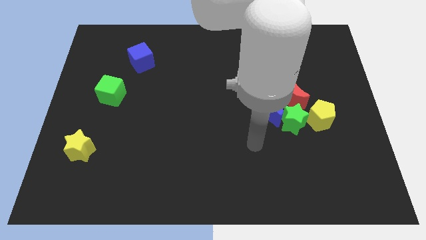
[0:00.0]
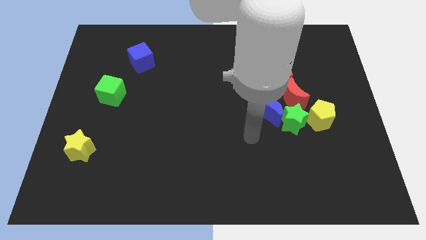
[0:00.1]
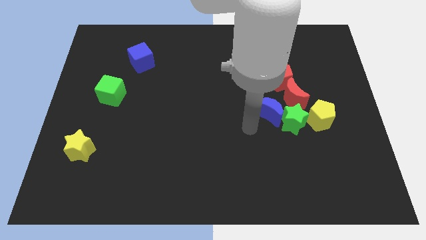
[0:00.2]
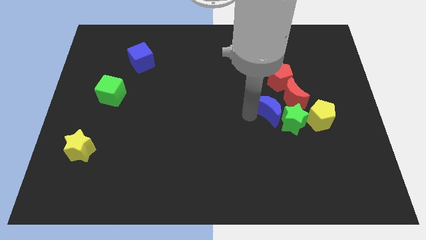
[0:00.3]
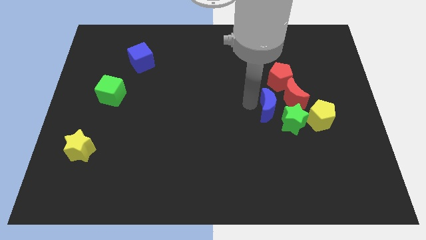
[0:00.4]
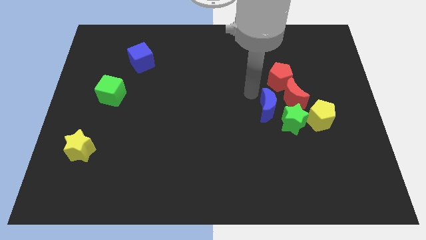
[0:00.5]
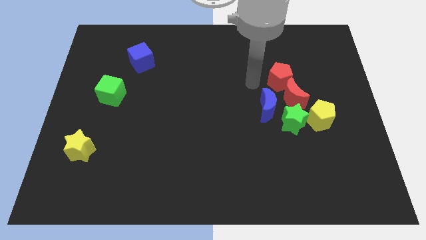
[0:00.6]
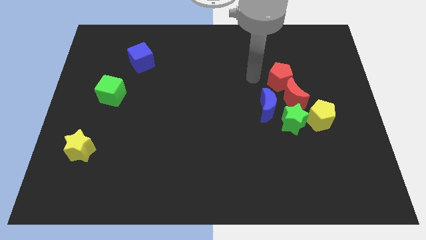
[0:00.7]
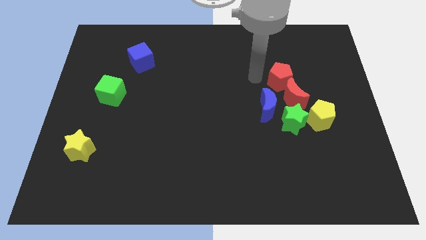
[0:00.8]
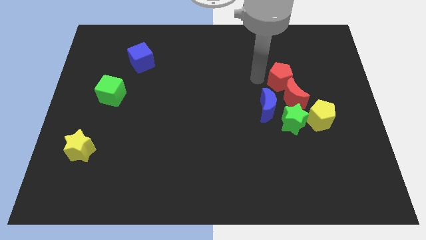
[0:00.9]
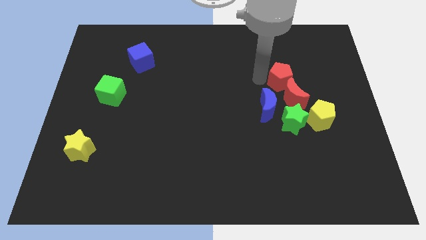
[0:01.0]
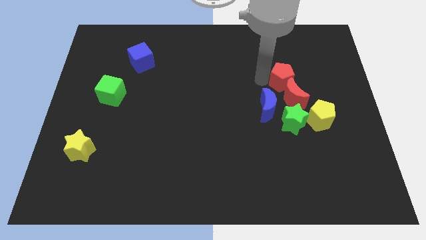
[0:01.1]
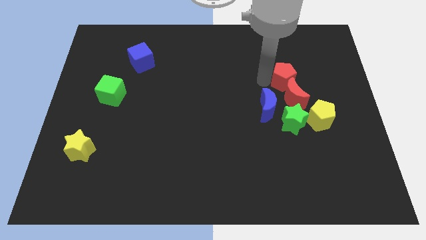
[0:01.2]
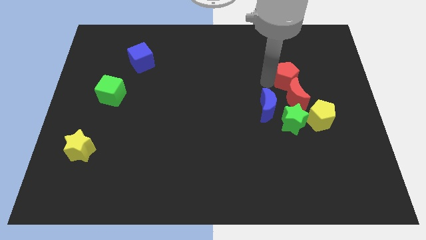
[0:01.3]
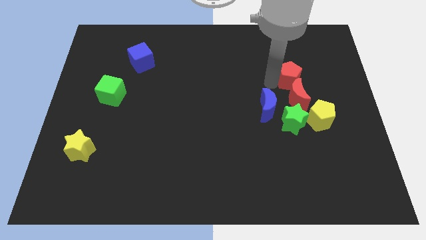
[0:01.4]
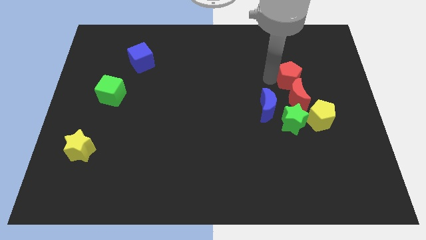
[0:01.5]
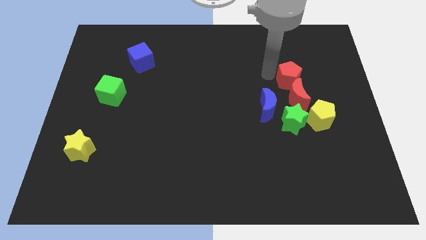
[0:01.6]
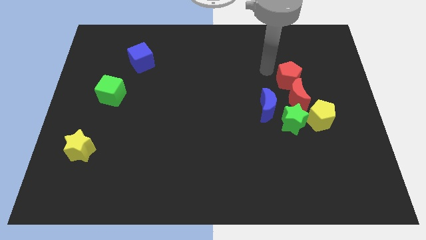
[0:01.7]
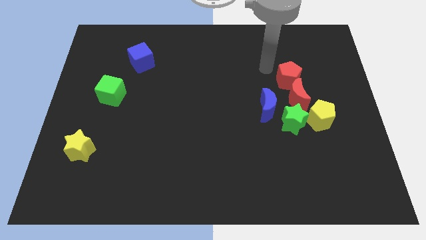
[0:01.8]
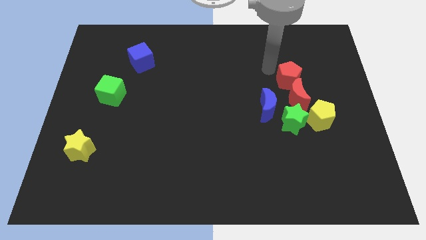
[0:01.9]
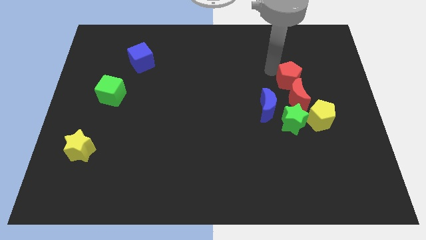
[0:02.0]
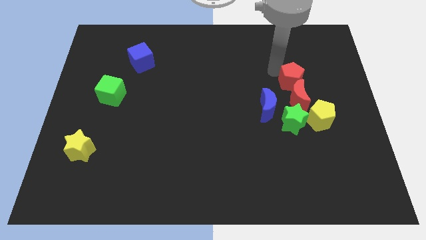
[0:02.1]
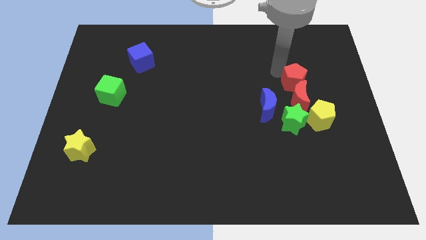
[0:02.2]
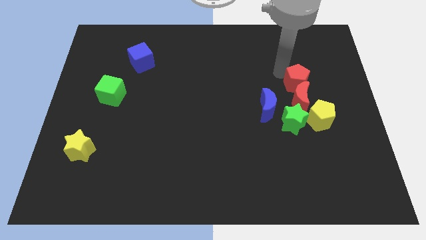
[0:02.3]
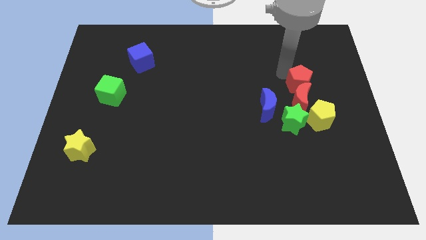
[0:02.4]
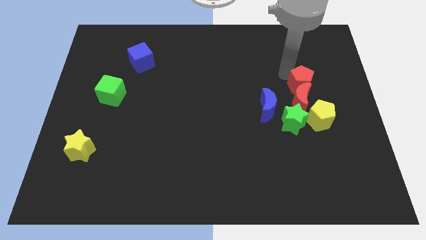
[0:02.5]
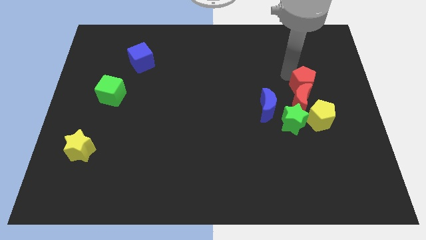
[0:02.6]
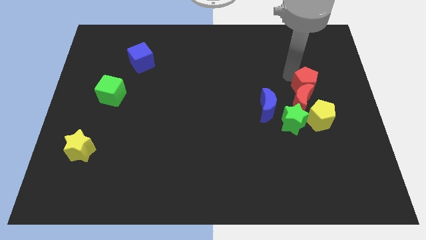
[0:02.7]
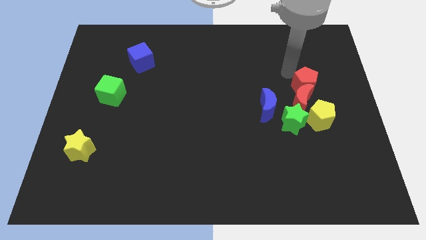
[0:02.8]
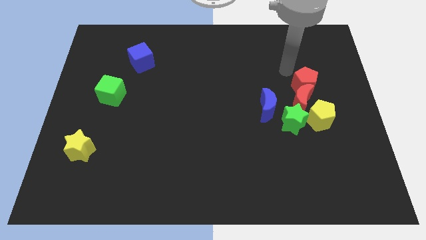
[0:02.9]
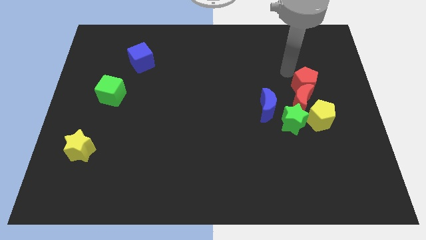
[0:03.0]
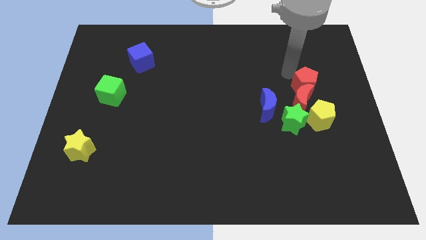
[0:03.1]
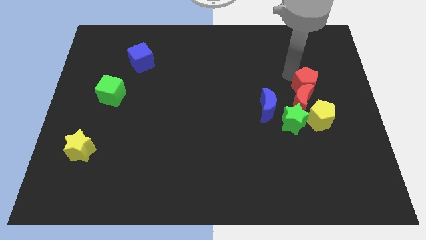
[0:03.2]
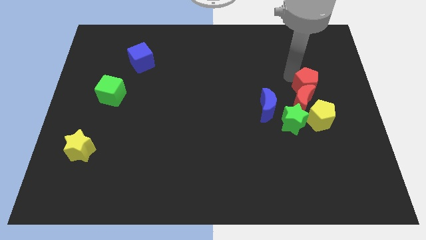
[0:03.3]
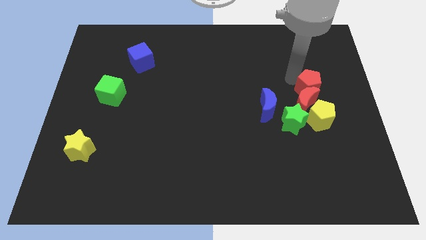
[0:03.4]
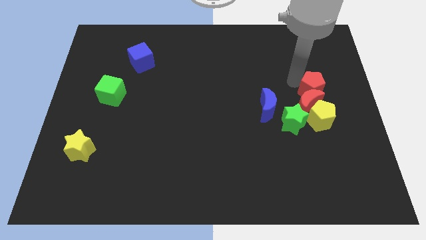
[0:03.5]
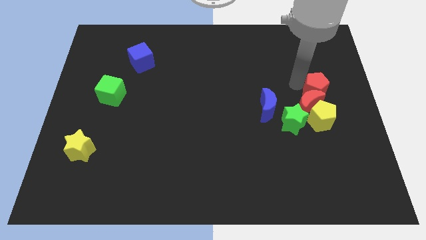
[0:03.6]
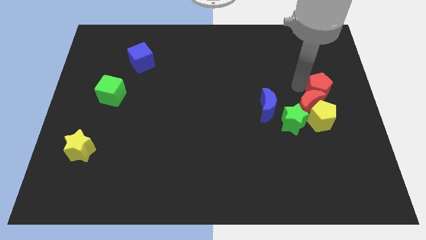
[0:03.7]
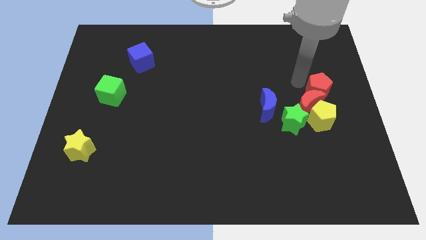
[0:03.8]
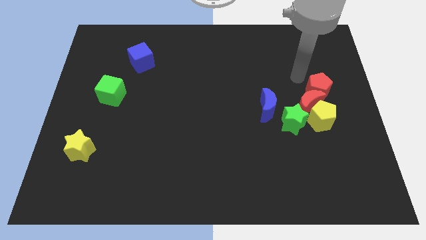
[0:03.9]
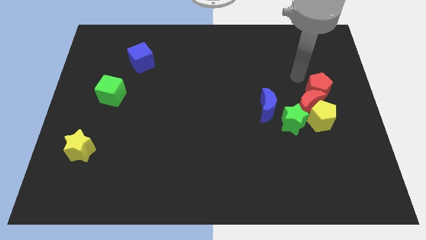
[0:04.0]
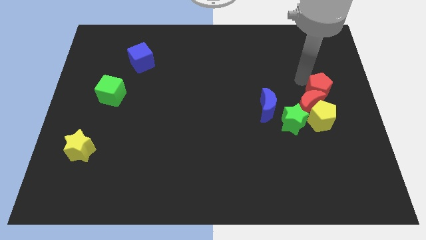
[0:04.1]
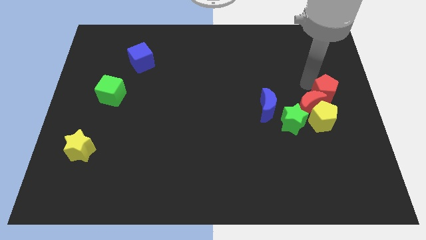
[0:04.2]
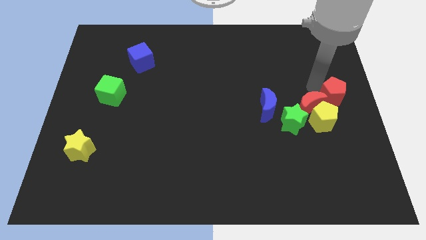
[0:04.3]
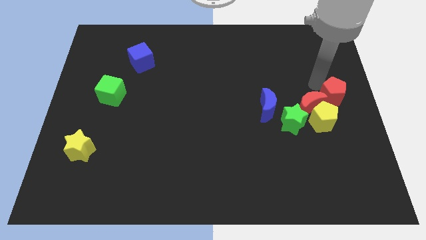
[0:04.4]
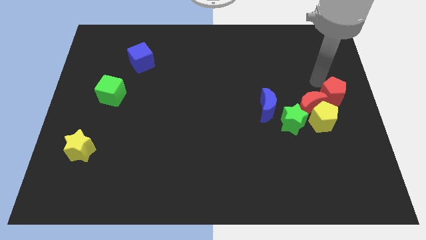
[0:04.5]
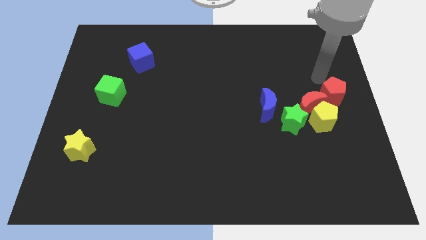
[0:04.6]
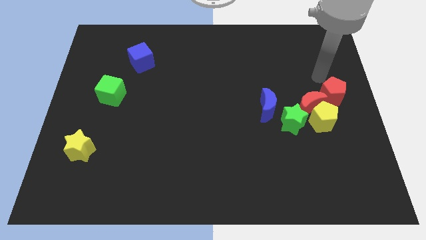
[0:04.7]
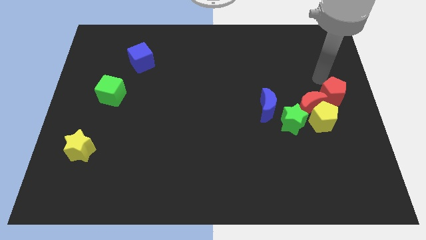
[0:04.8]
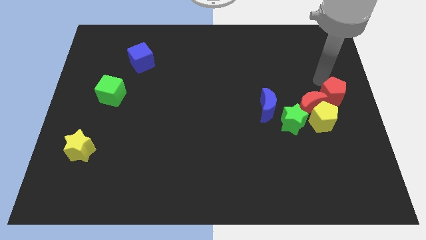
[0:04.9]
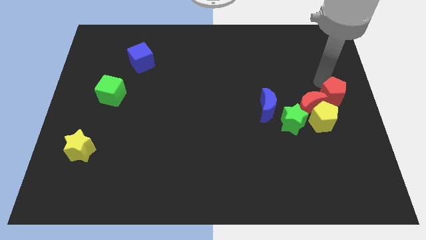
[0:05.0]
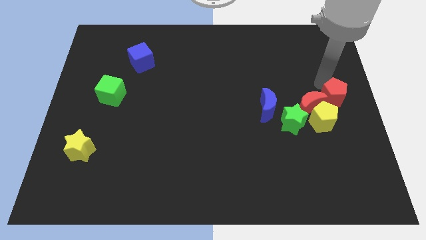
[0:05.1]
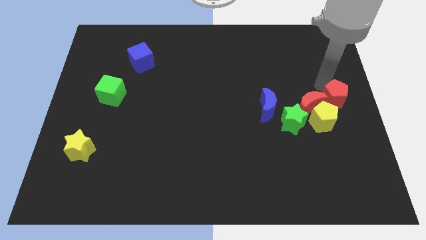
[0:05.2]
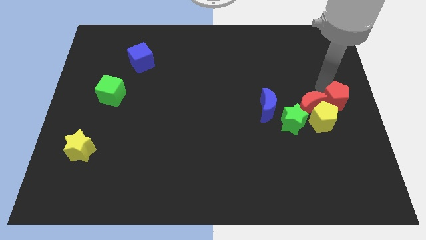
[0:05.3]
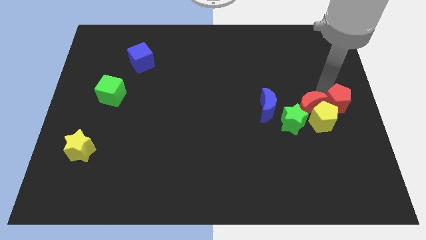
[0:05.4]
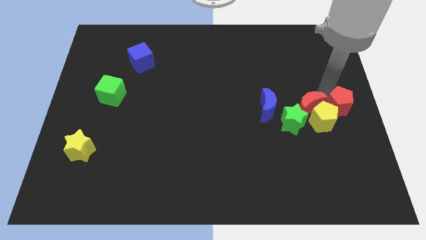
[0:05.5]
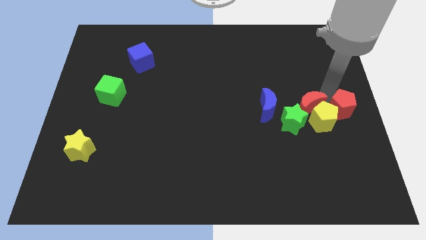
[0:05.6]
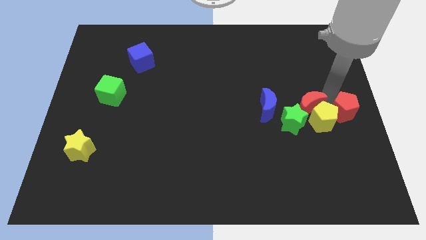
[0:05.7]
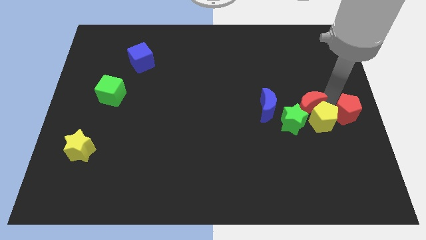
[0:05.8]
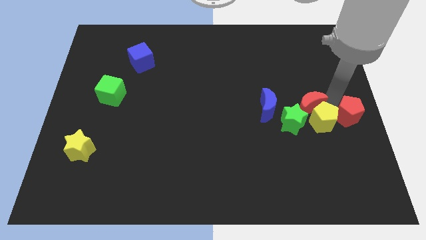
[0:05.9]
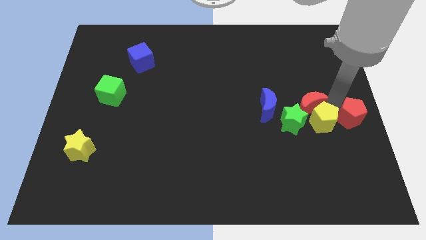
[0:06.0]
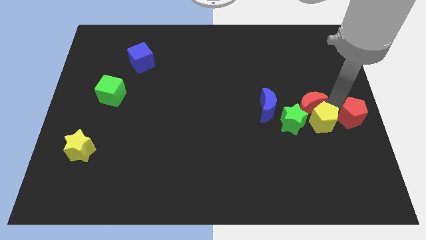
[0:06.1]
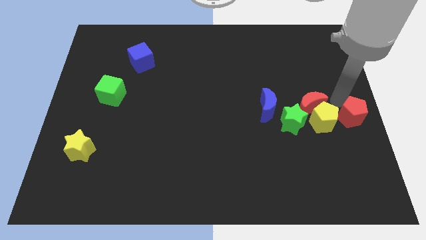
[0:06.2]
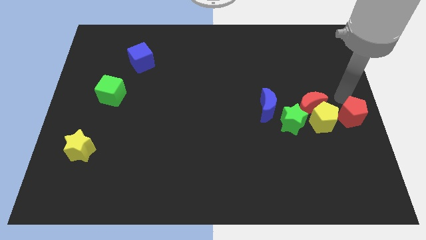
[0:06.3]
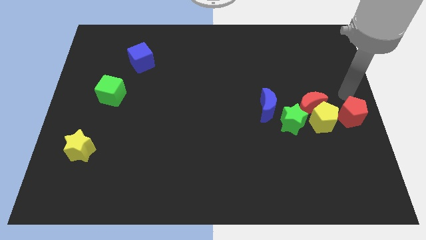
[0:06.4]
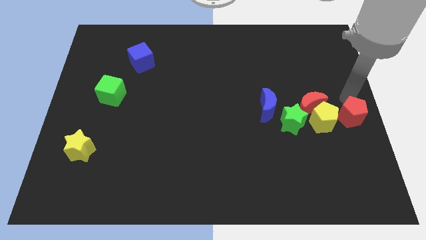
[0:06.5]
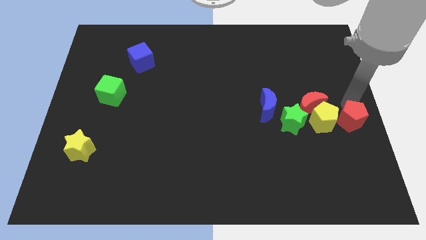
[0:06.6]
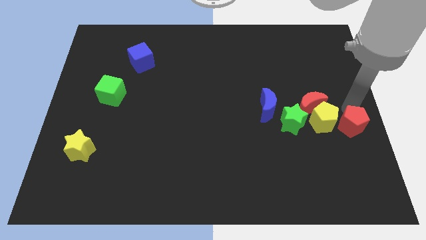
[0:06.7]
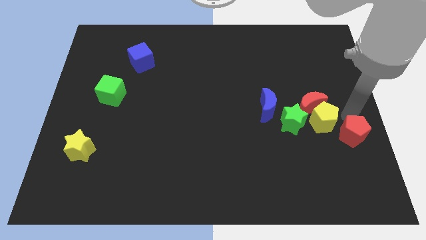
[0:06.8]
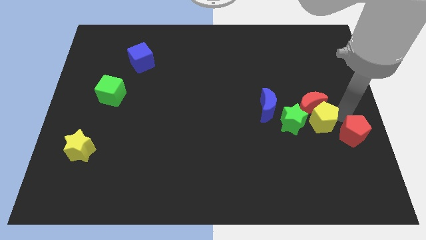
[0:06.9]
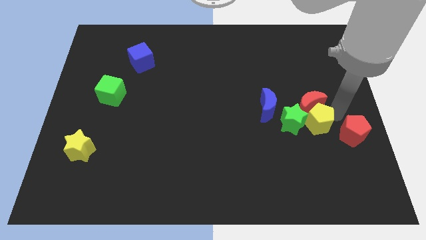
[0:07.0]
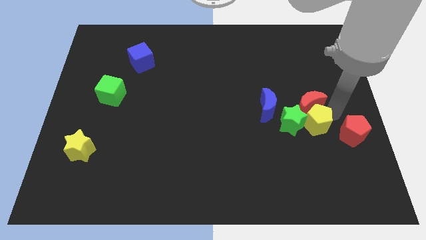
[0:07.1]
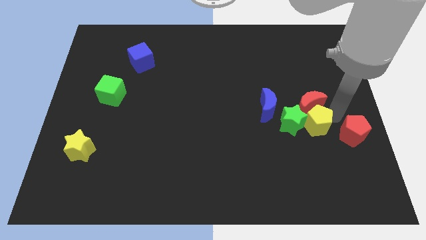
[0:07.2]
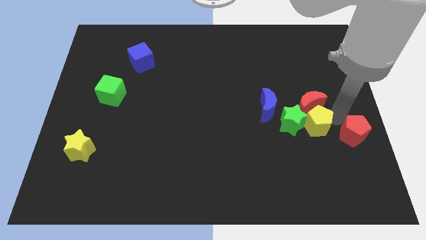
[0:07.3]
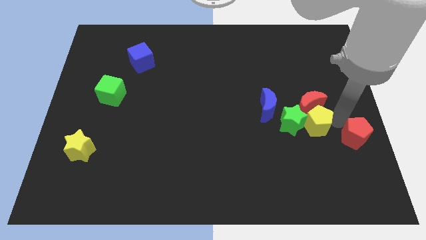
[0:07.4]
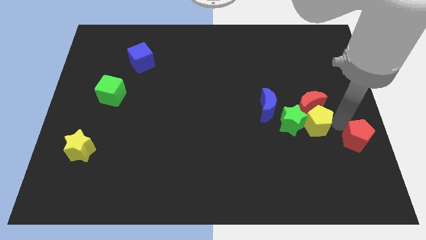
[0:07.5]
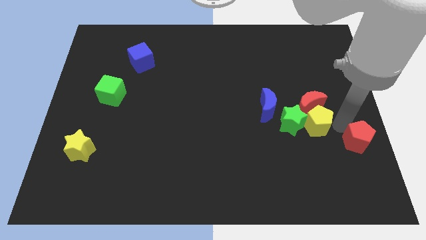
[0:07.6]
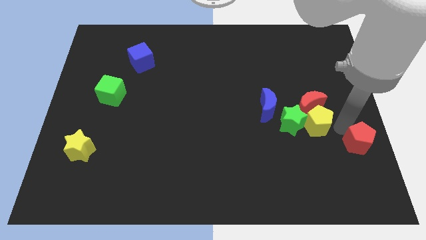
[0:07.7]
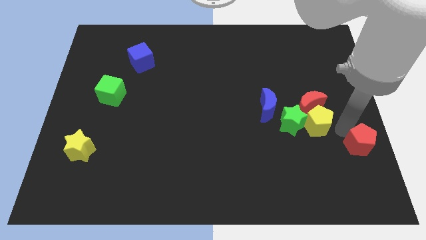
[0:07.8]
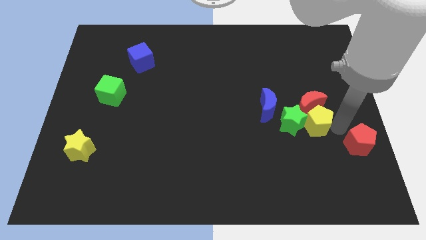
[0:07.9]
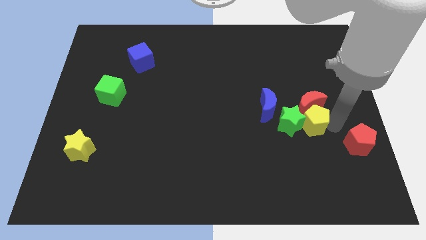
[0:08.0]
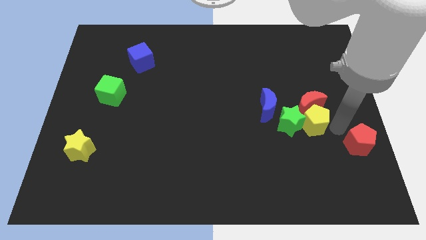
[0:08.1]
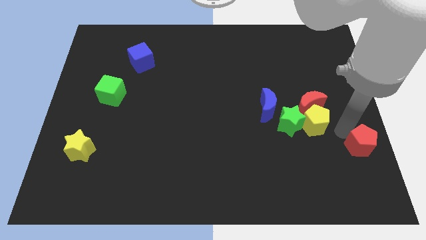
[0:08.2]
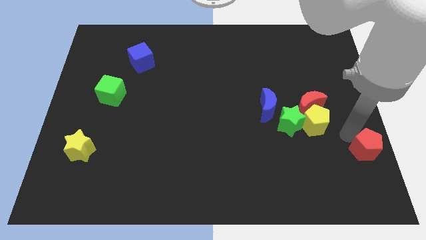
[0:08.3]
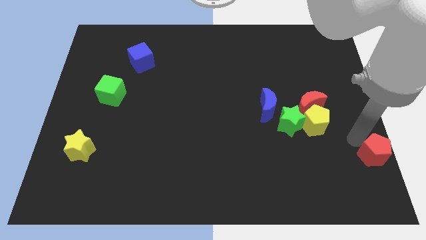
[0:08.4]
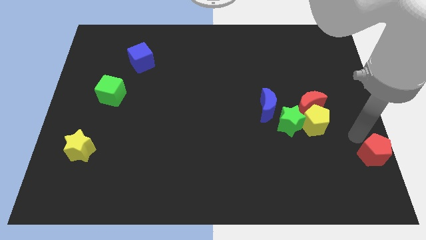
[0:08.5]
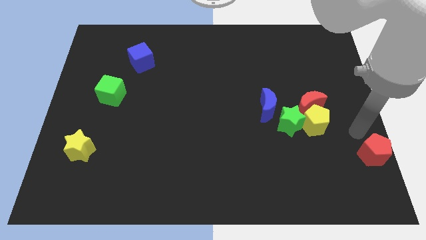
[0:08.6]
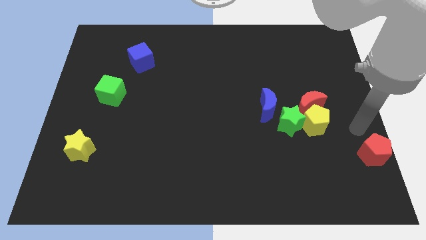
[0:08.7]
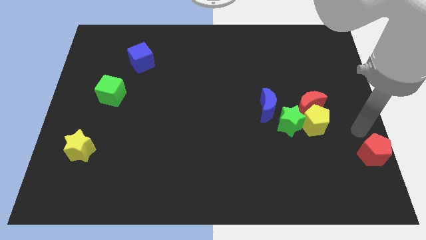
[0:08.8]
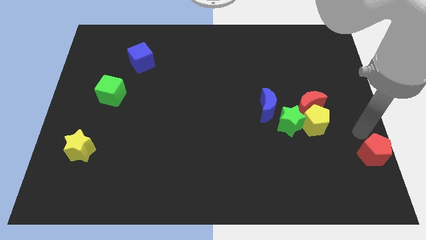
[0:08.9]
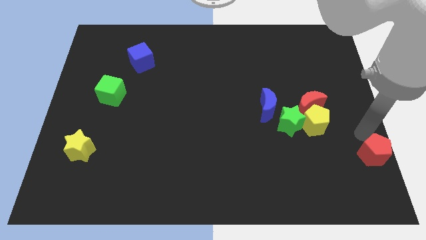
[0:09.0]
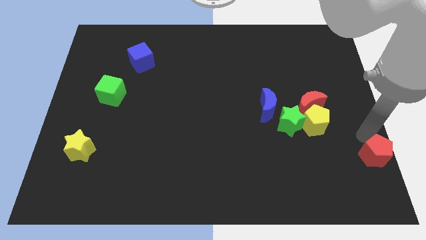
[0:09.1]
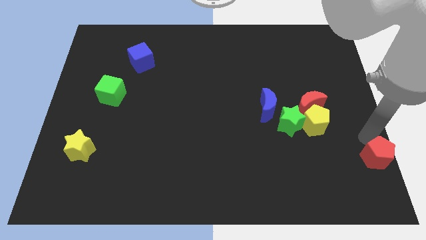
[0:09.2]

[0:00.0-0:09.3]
move the red pentagon to the bottom right of the board
